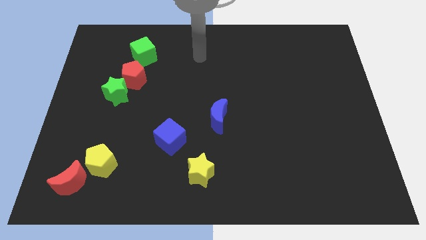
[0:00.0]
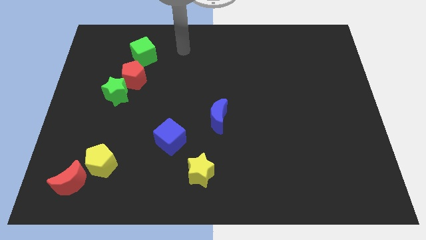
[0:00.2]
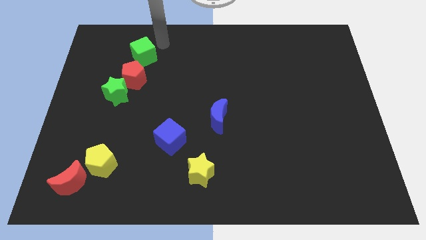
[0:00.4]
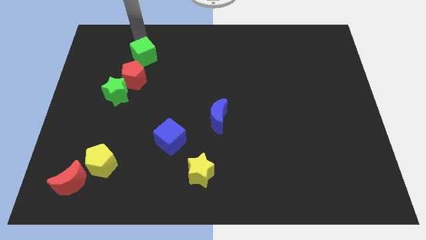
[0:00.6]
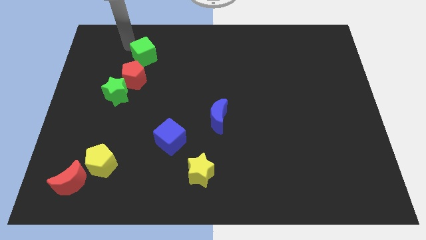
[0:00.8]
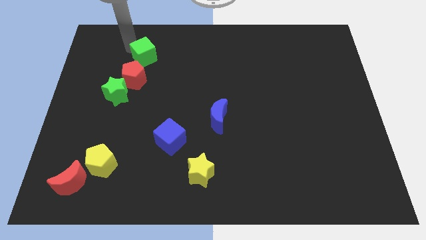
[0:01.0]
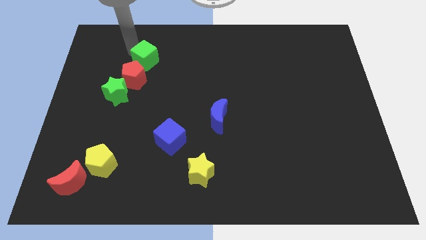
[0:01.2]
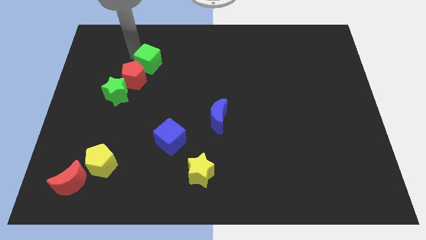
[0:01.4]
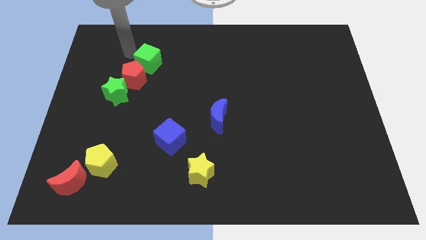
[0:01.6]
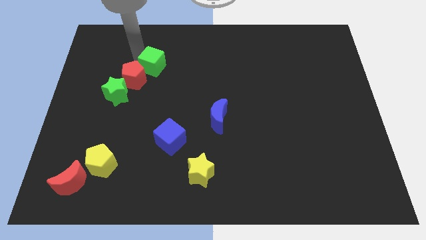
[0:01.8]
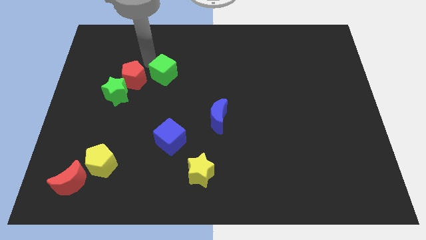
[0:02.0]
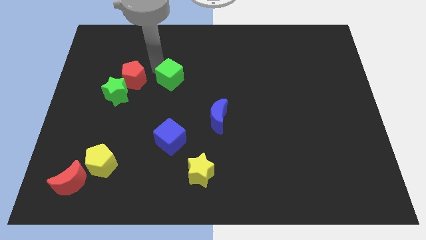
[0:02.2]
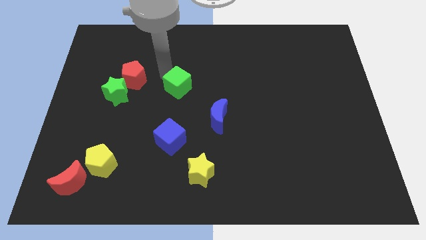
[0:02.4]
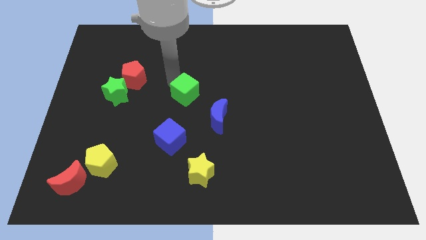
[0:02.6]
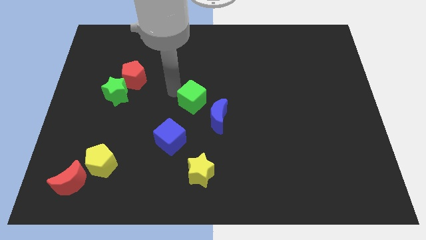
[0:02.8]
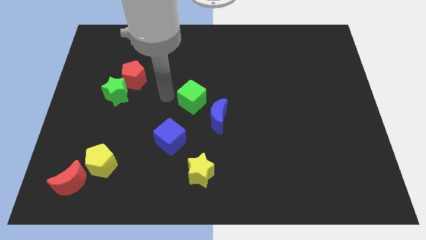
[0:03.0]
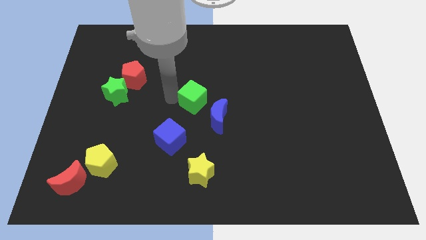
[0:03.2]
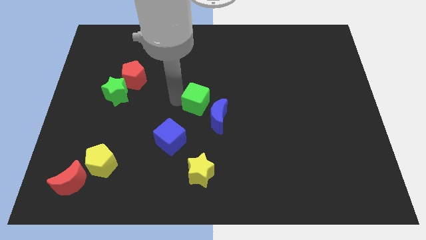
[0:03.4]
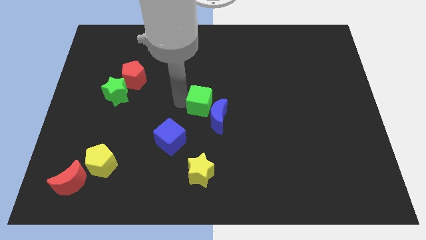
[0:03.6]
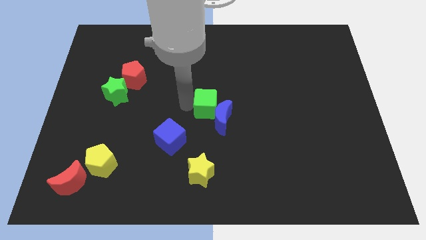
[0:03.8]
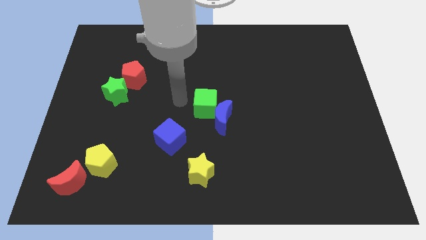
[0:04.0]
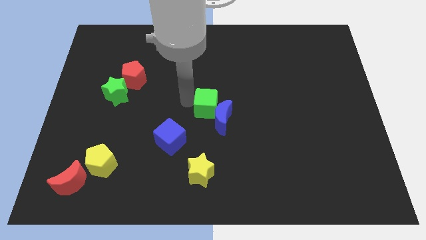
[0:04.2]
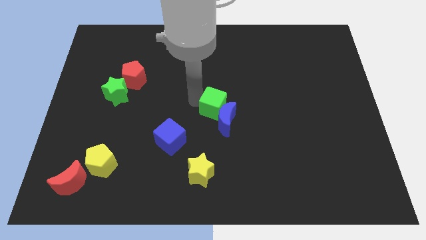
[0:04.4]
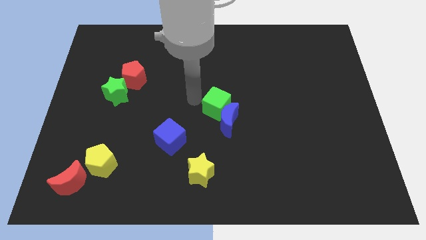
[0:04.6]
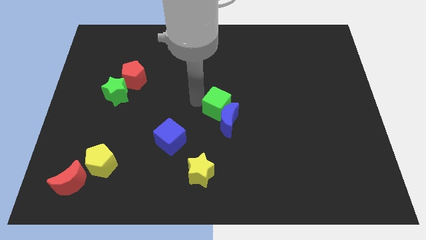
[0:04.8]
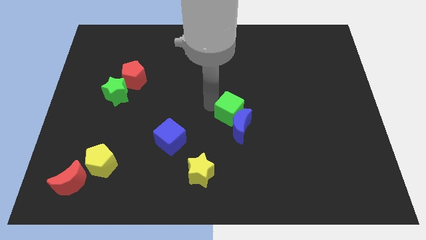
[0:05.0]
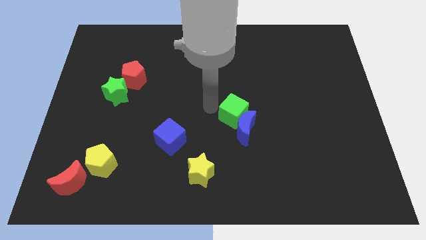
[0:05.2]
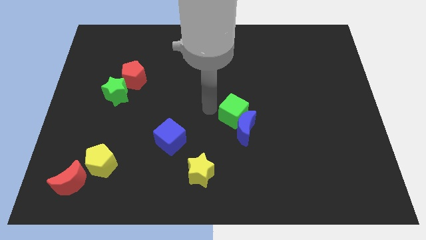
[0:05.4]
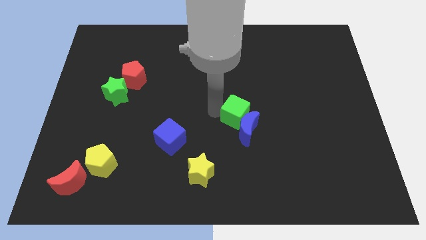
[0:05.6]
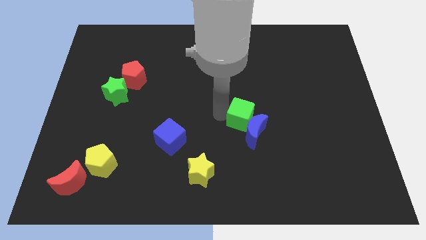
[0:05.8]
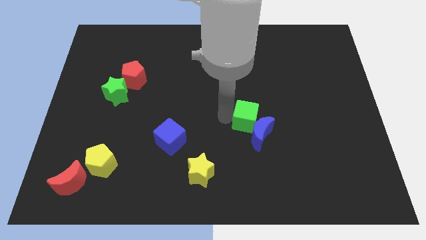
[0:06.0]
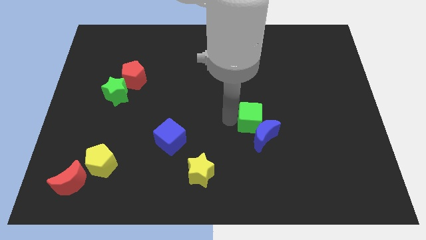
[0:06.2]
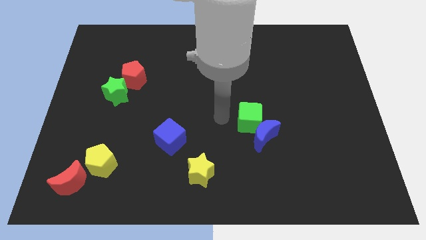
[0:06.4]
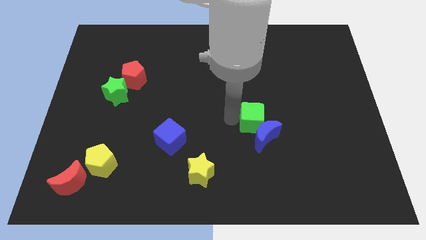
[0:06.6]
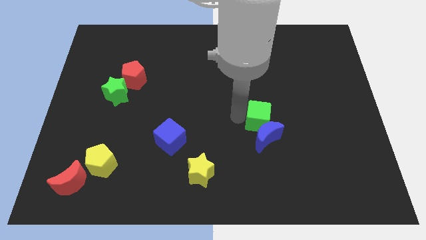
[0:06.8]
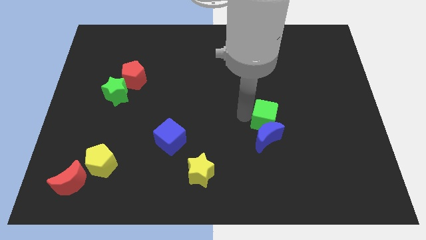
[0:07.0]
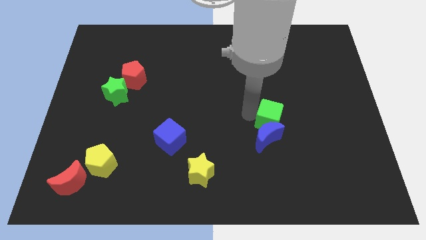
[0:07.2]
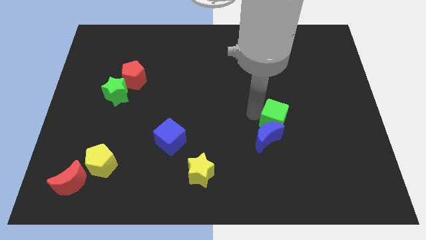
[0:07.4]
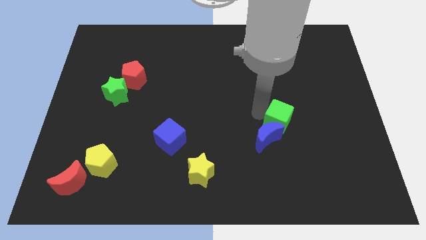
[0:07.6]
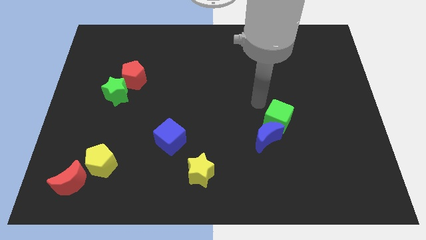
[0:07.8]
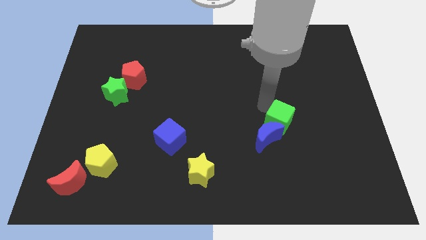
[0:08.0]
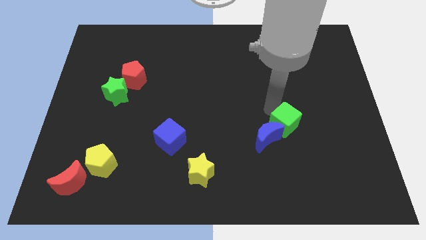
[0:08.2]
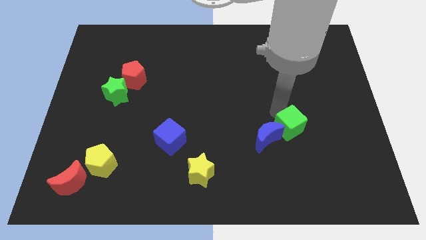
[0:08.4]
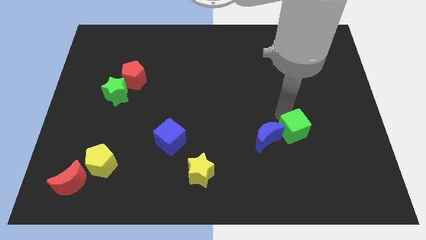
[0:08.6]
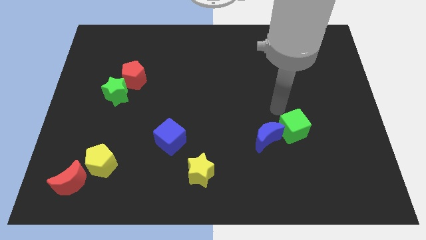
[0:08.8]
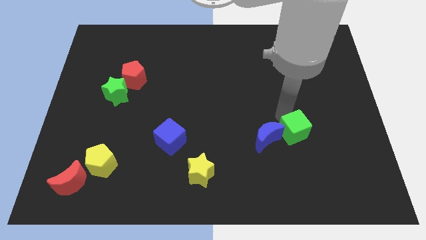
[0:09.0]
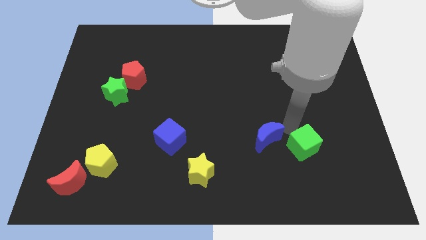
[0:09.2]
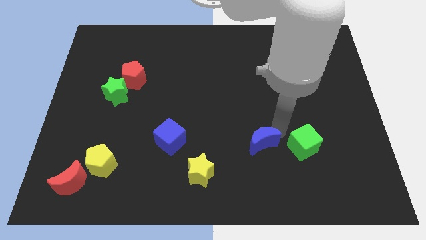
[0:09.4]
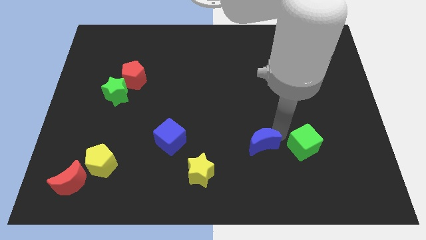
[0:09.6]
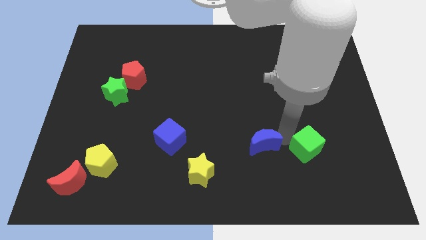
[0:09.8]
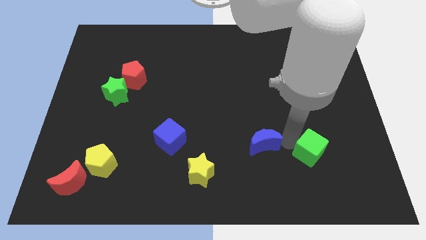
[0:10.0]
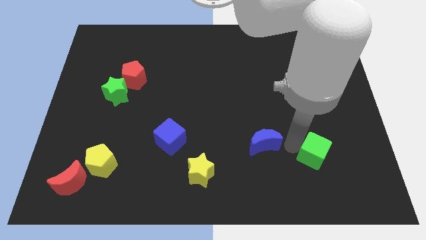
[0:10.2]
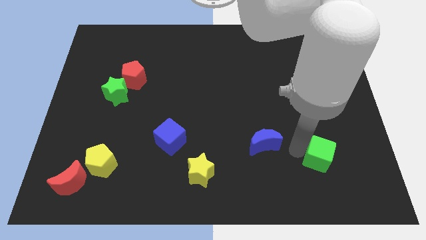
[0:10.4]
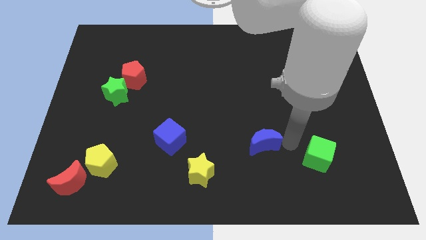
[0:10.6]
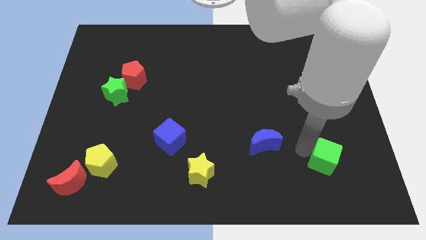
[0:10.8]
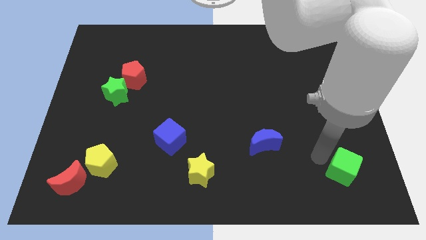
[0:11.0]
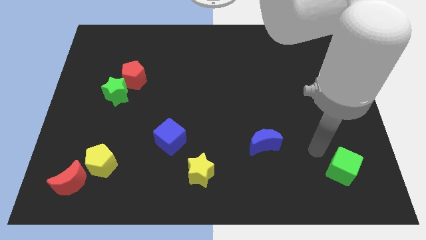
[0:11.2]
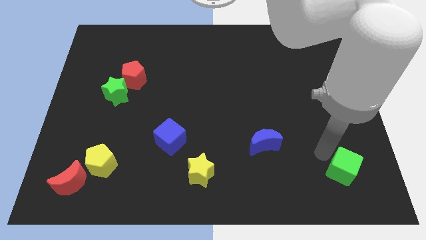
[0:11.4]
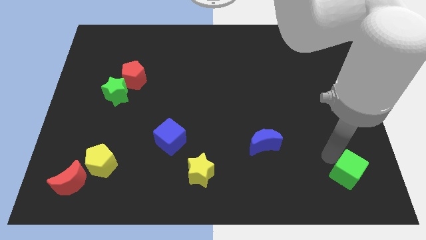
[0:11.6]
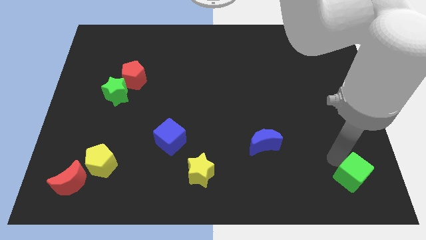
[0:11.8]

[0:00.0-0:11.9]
move the green cube to the lower right corner
